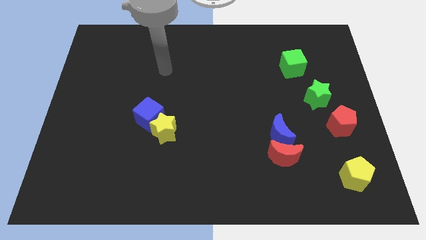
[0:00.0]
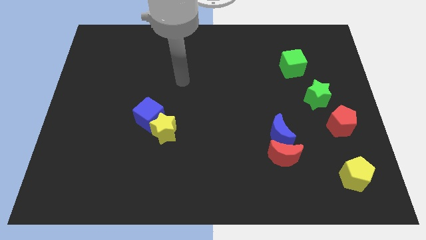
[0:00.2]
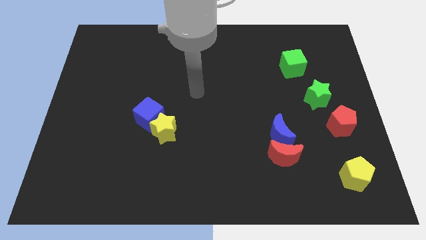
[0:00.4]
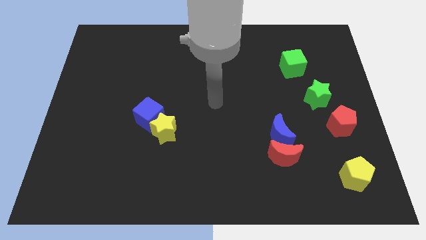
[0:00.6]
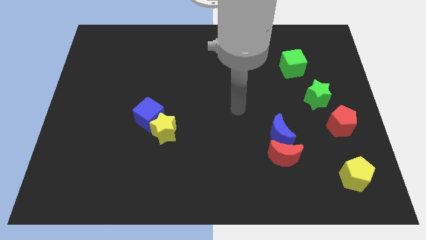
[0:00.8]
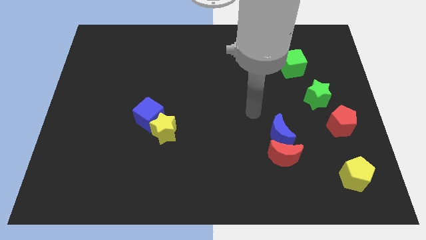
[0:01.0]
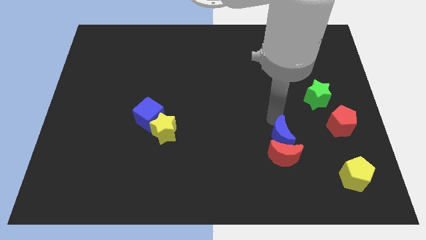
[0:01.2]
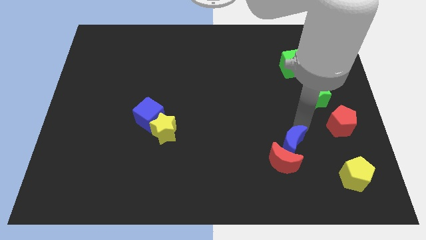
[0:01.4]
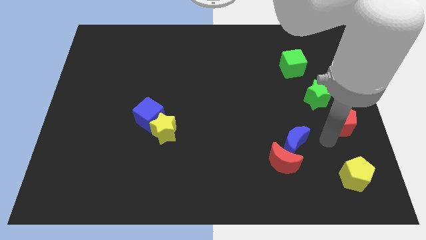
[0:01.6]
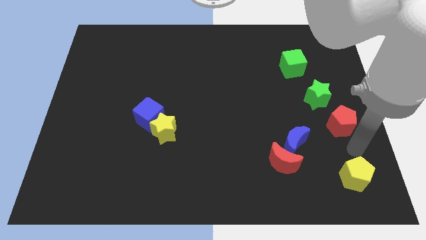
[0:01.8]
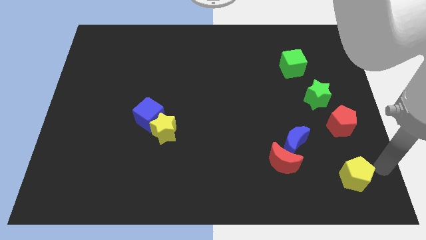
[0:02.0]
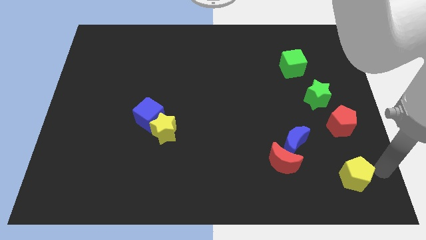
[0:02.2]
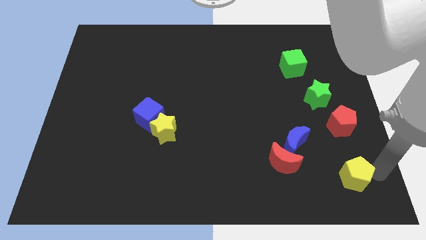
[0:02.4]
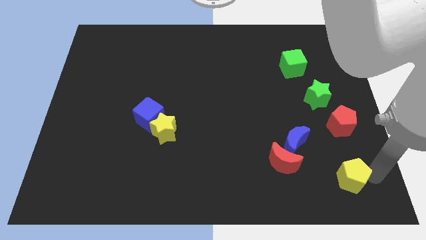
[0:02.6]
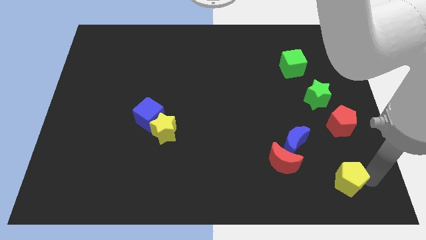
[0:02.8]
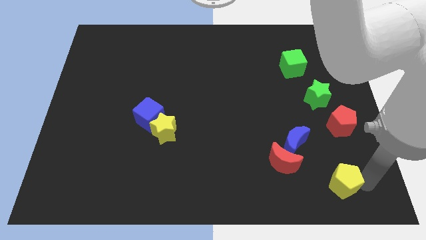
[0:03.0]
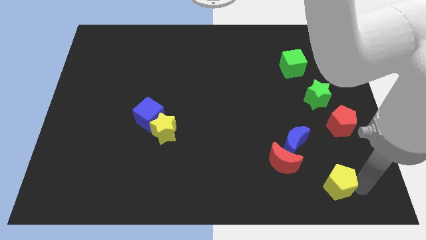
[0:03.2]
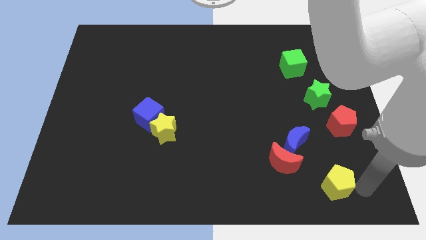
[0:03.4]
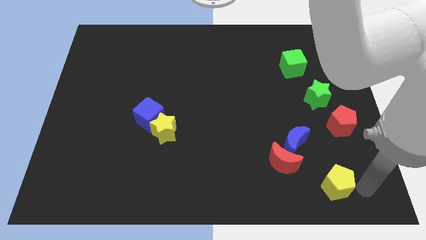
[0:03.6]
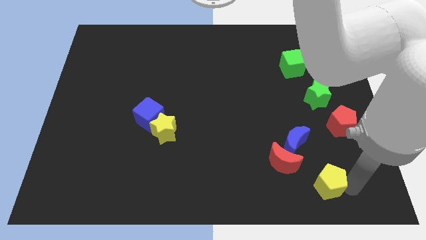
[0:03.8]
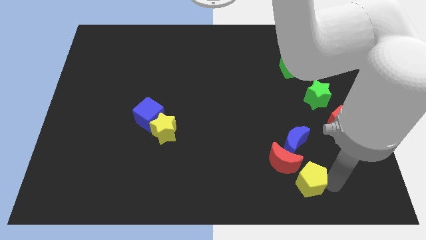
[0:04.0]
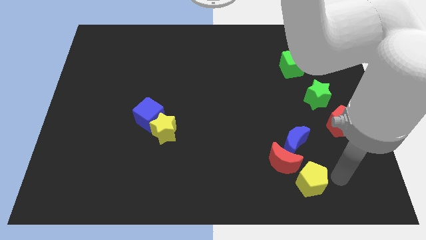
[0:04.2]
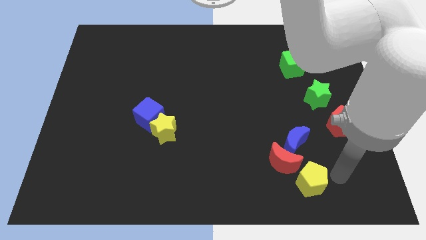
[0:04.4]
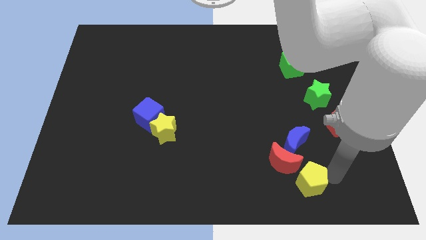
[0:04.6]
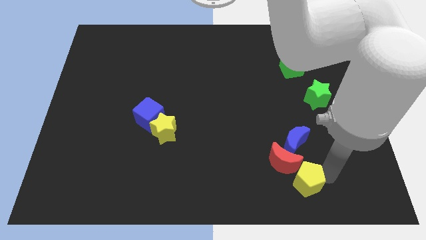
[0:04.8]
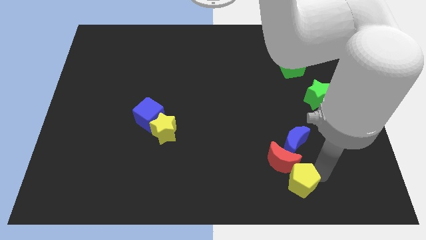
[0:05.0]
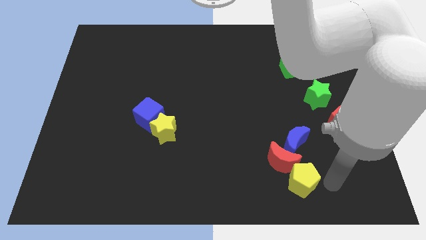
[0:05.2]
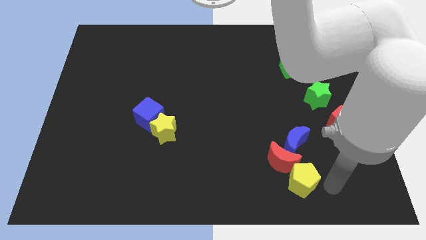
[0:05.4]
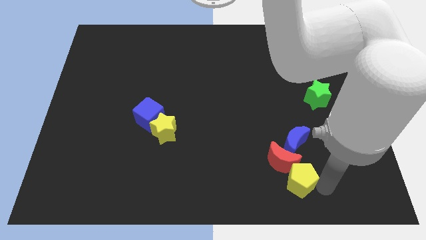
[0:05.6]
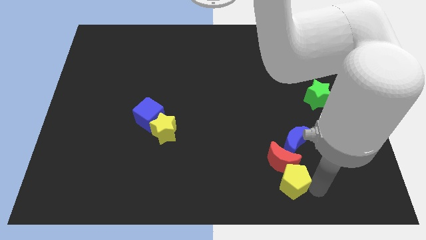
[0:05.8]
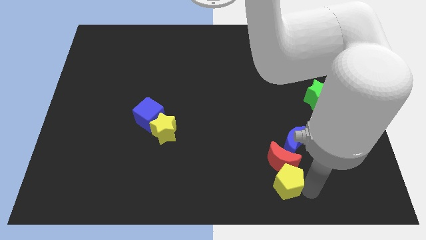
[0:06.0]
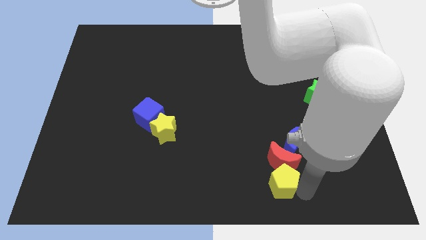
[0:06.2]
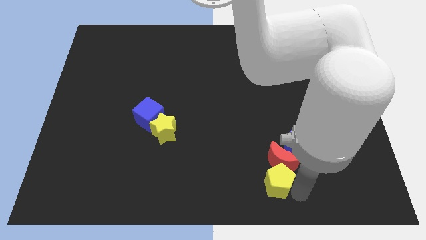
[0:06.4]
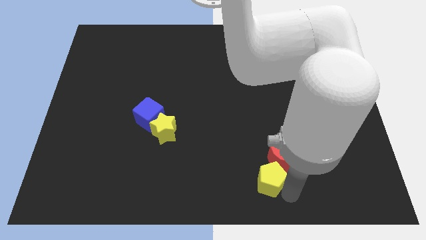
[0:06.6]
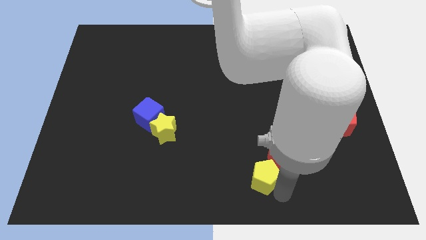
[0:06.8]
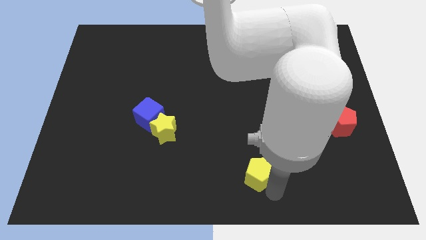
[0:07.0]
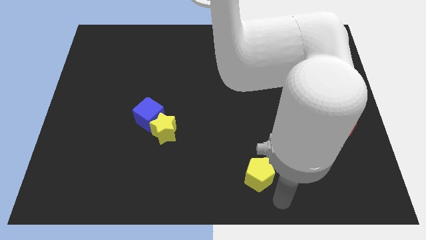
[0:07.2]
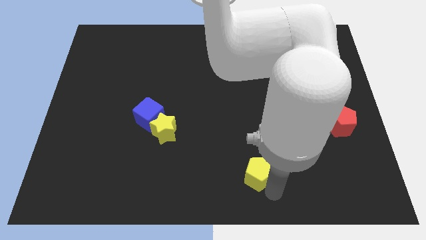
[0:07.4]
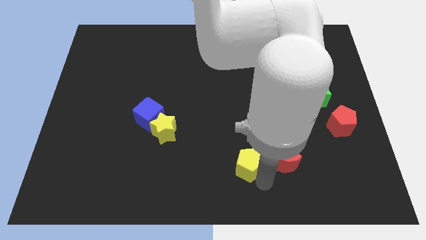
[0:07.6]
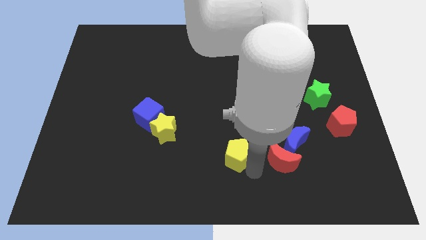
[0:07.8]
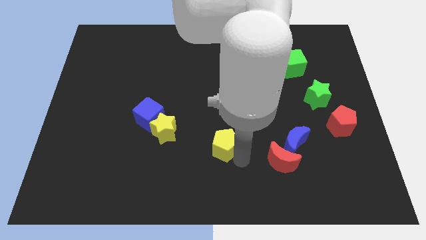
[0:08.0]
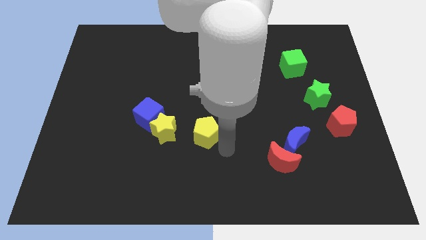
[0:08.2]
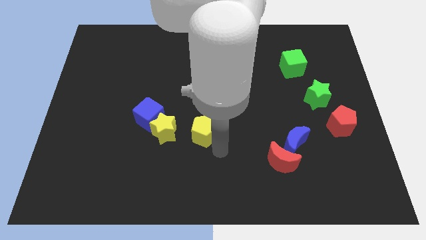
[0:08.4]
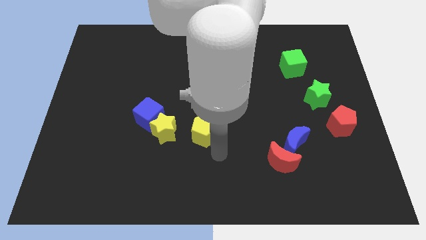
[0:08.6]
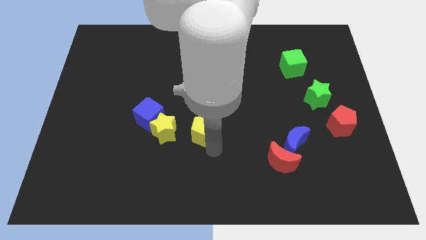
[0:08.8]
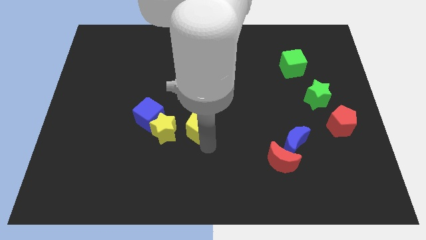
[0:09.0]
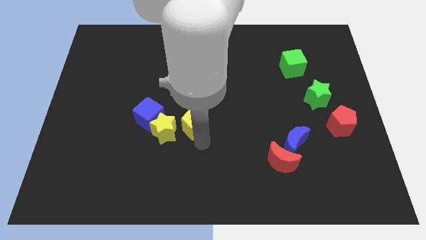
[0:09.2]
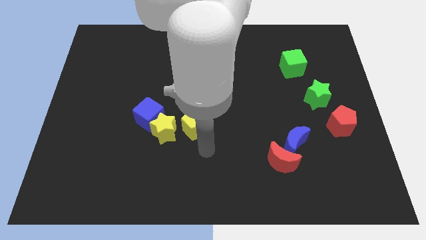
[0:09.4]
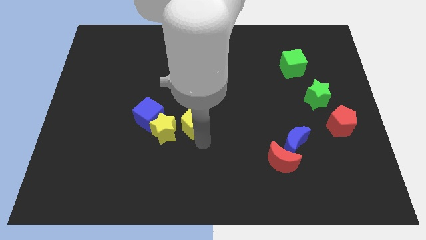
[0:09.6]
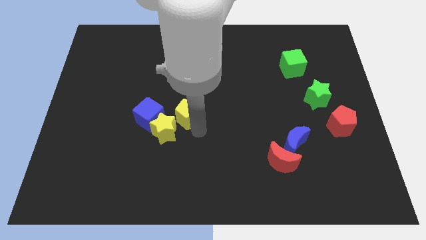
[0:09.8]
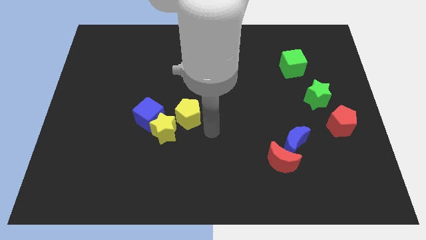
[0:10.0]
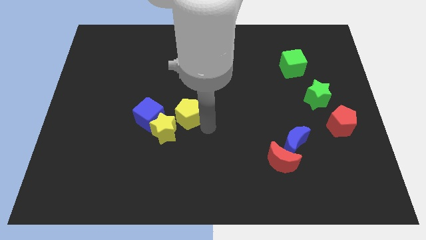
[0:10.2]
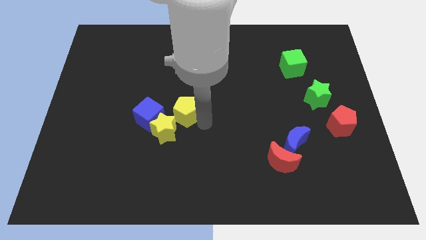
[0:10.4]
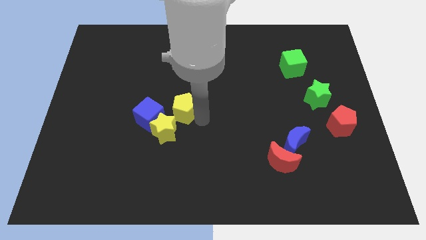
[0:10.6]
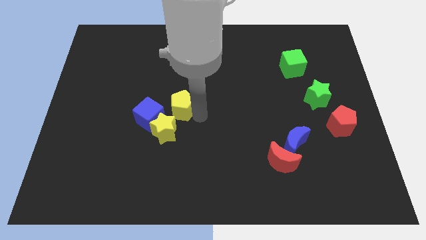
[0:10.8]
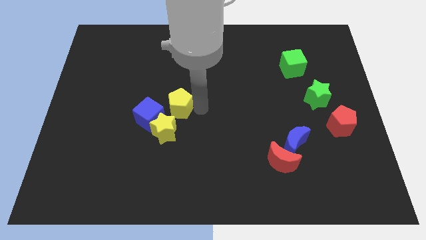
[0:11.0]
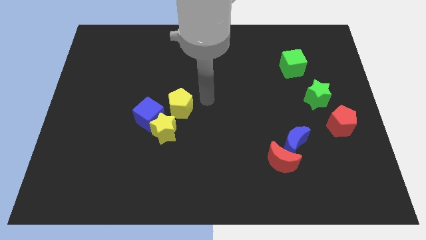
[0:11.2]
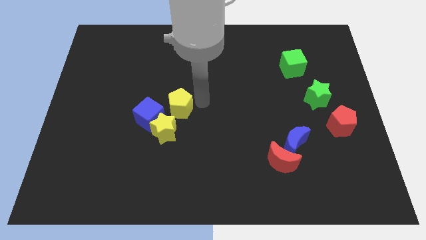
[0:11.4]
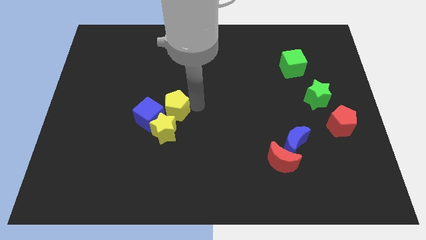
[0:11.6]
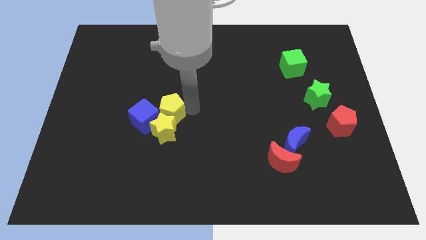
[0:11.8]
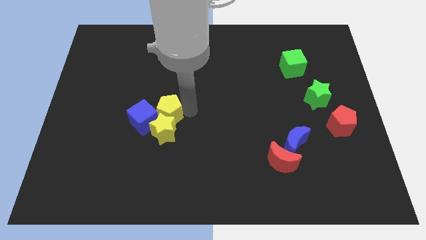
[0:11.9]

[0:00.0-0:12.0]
push the yellow pentagon towards the blue cube

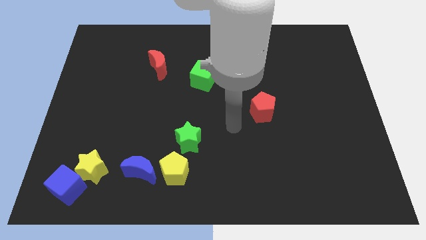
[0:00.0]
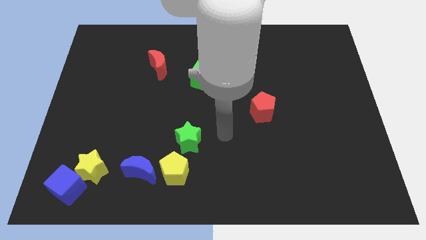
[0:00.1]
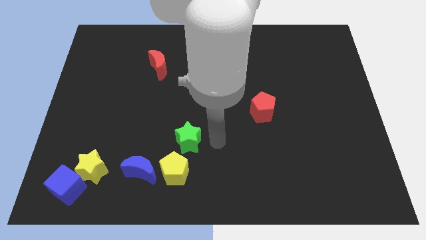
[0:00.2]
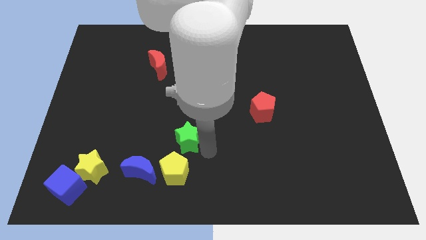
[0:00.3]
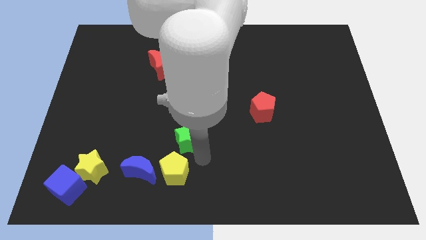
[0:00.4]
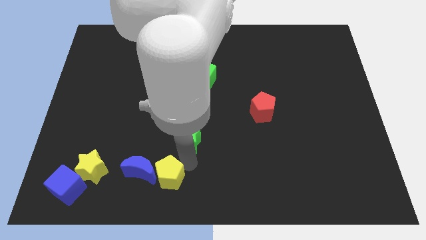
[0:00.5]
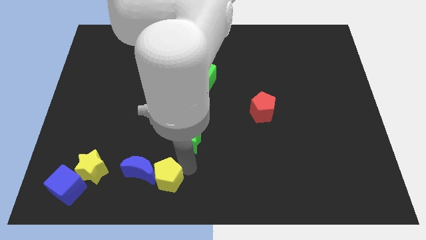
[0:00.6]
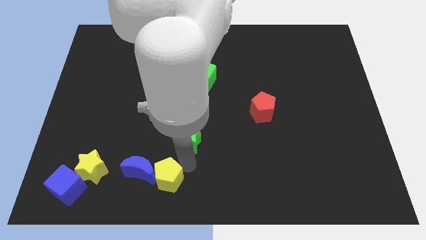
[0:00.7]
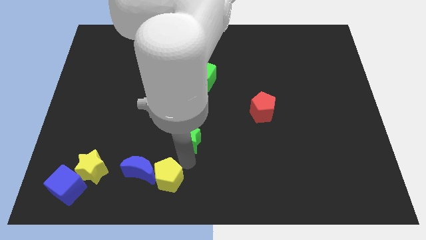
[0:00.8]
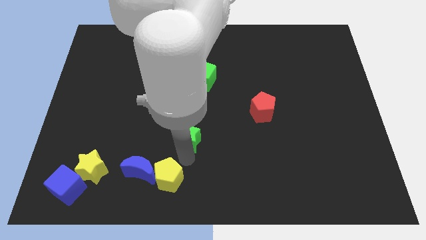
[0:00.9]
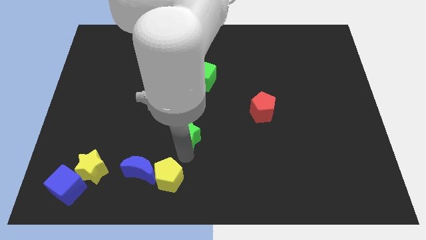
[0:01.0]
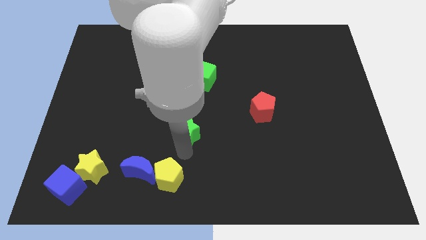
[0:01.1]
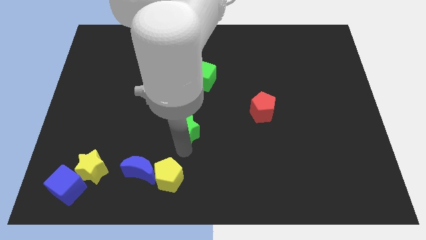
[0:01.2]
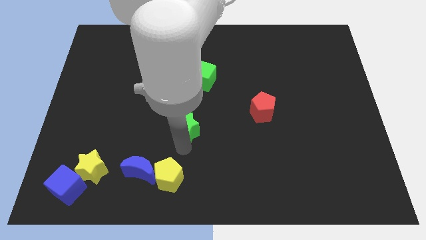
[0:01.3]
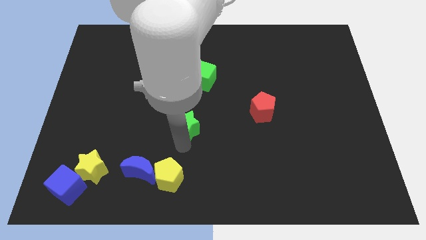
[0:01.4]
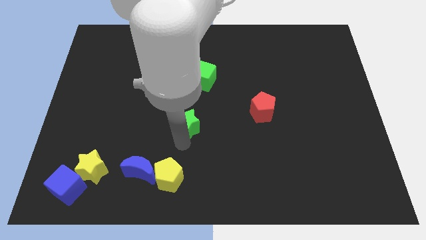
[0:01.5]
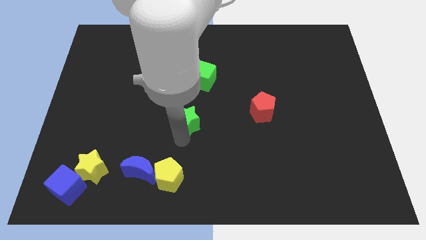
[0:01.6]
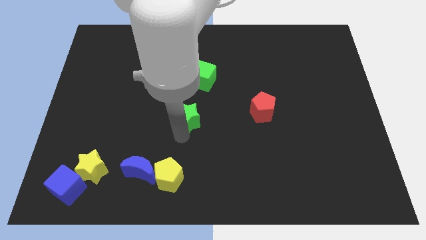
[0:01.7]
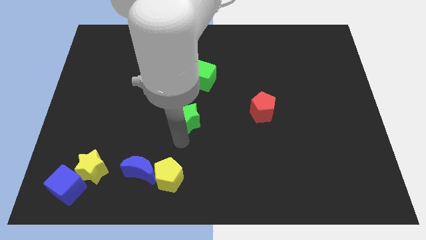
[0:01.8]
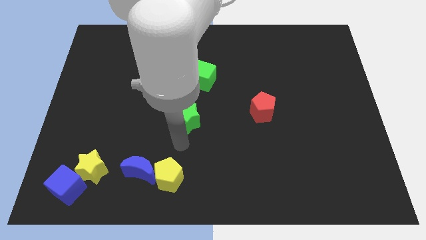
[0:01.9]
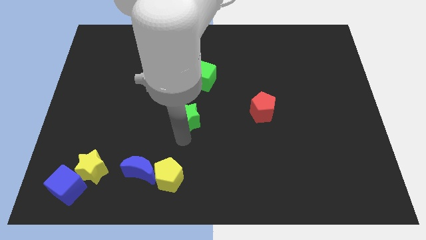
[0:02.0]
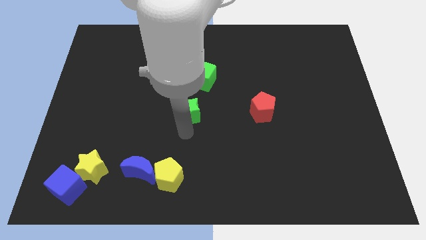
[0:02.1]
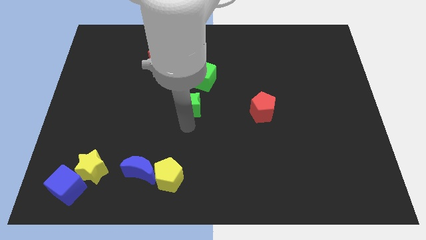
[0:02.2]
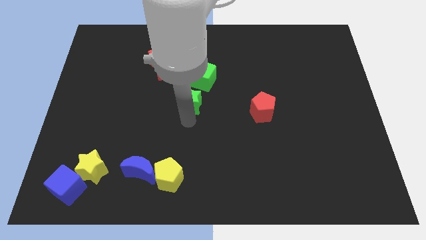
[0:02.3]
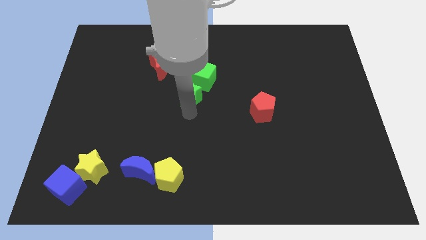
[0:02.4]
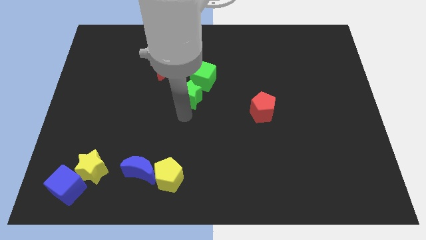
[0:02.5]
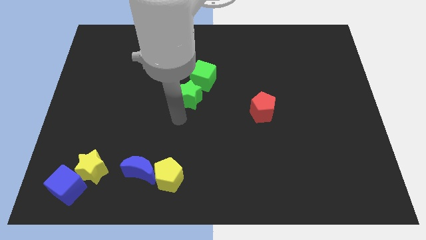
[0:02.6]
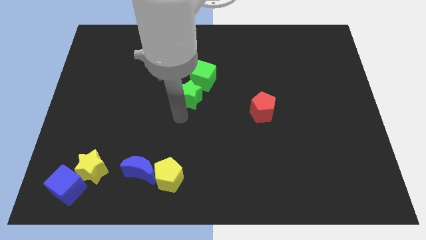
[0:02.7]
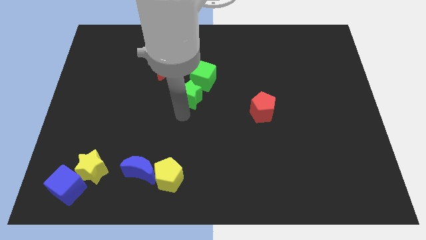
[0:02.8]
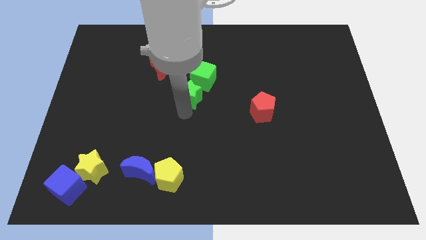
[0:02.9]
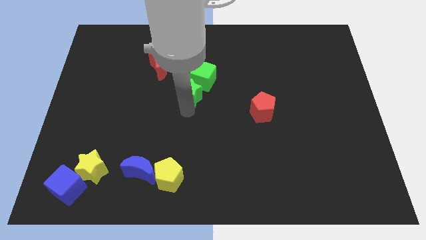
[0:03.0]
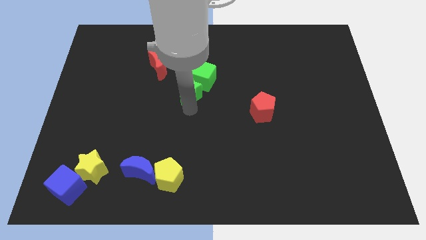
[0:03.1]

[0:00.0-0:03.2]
slide the green star close to the green cube
